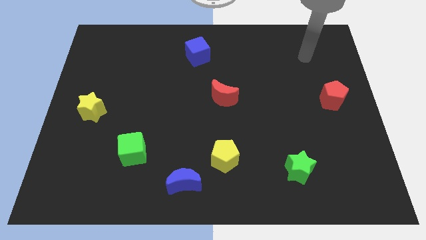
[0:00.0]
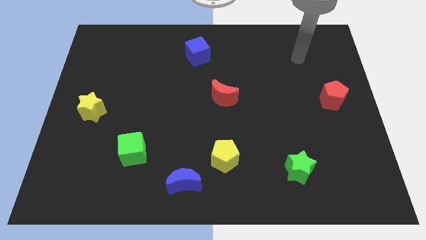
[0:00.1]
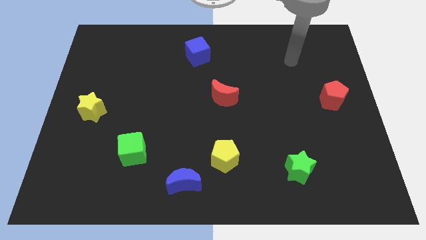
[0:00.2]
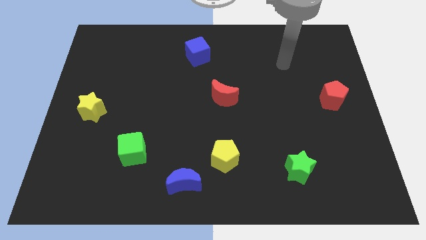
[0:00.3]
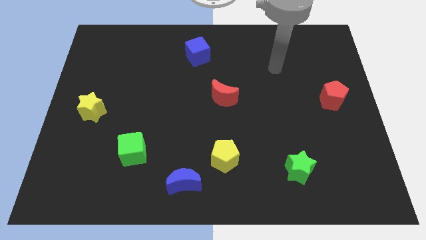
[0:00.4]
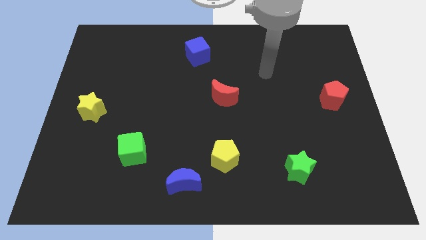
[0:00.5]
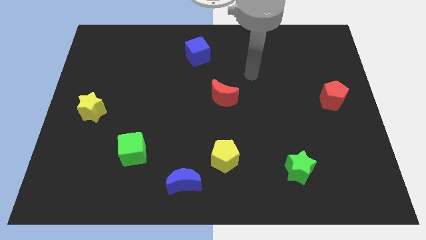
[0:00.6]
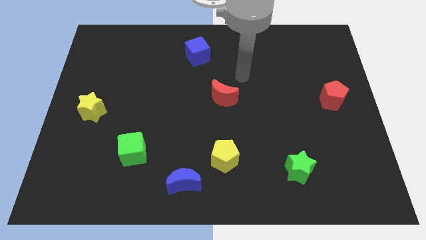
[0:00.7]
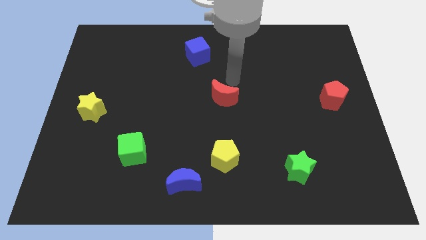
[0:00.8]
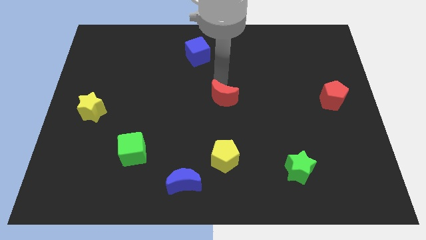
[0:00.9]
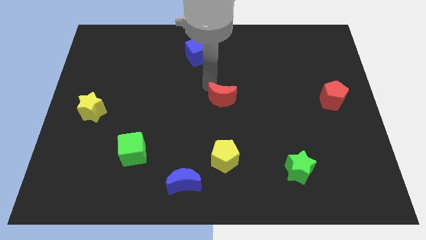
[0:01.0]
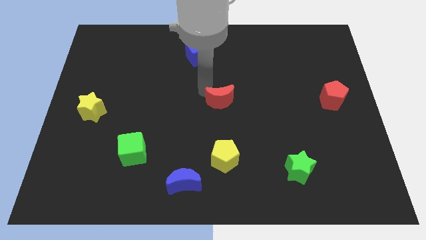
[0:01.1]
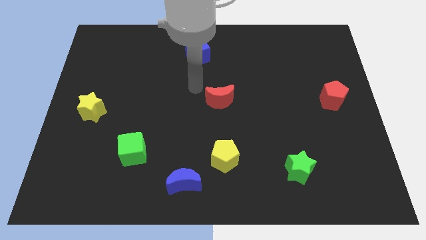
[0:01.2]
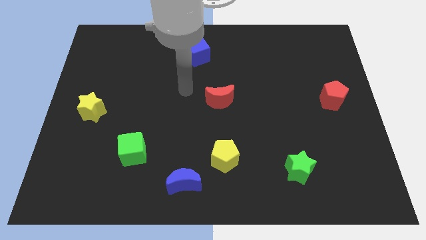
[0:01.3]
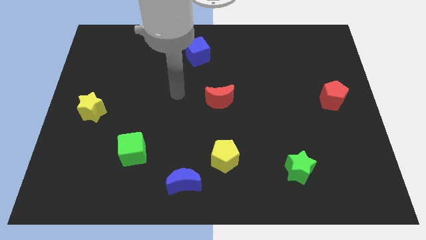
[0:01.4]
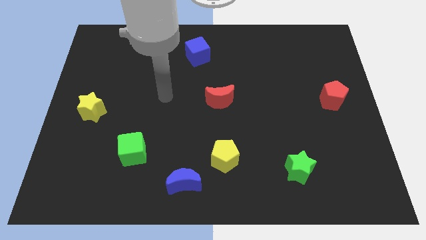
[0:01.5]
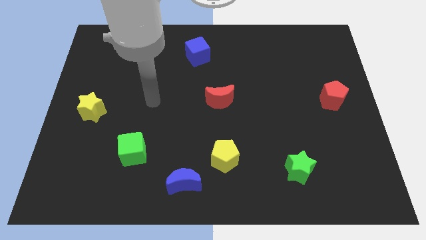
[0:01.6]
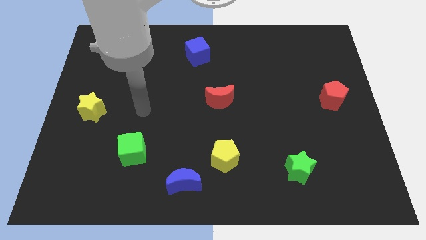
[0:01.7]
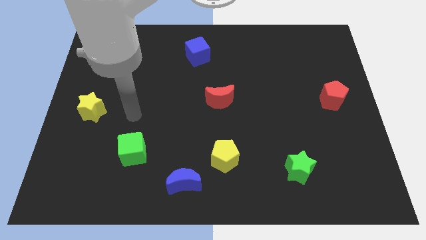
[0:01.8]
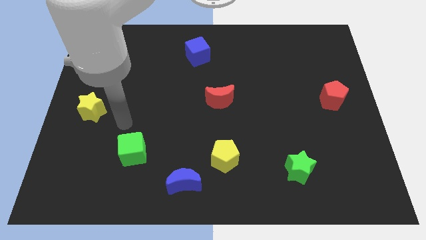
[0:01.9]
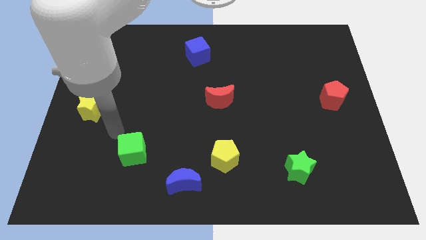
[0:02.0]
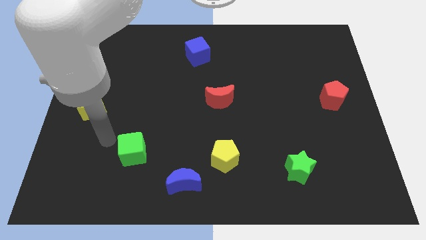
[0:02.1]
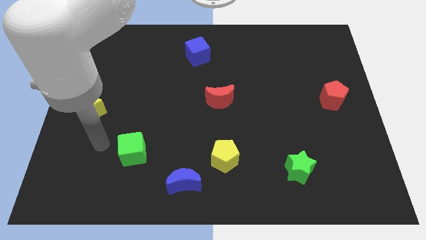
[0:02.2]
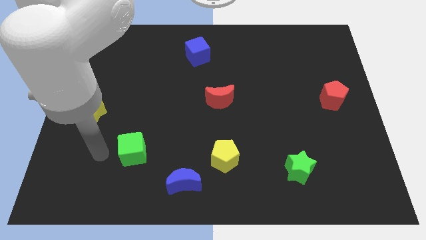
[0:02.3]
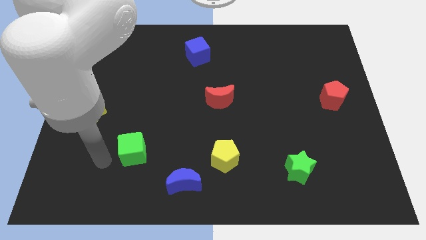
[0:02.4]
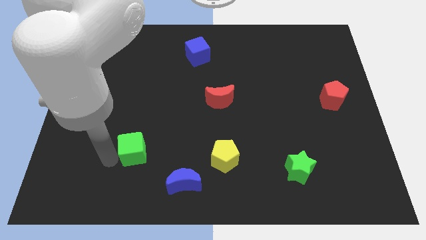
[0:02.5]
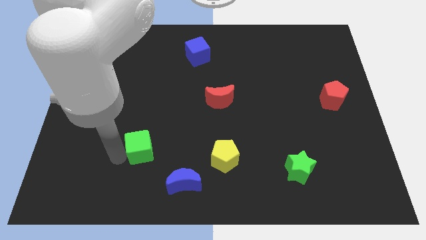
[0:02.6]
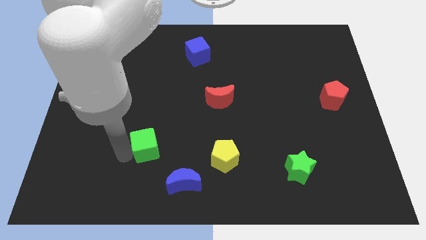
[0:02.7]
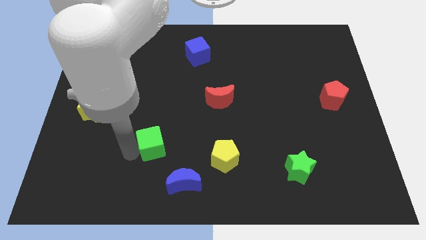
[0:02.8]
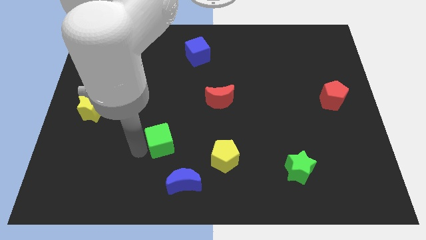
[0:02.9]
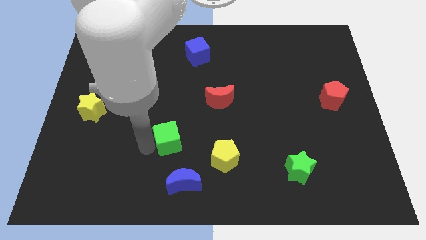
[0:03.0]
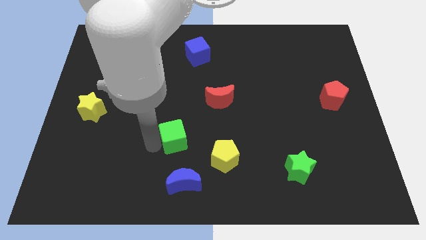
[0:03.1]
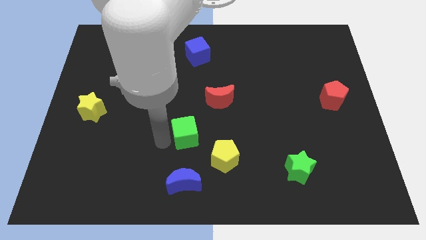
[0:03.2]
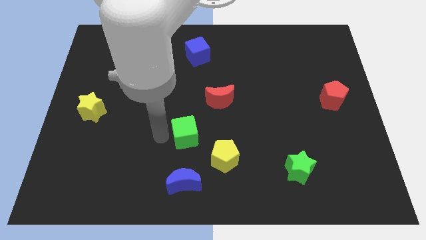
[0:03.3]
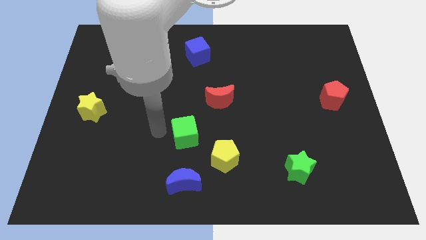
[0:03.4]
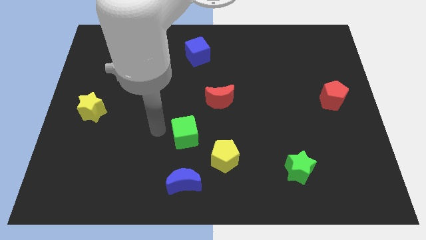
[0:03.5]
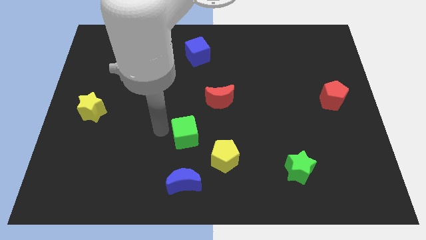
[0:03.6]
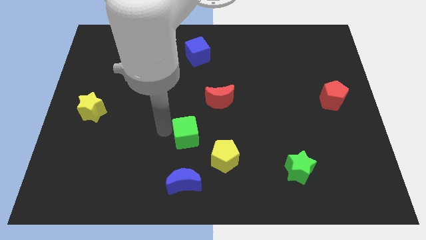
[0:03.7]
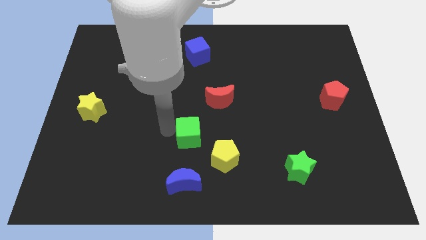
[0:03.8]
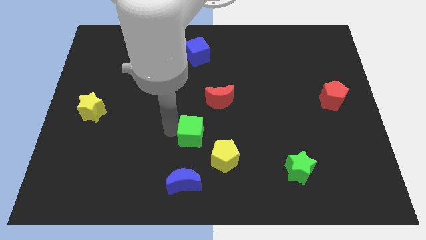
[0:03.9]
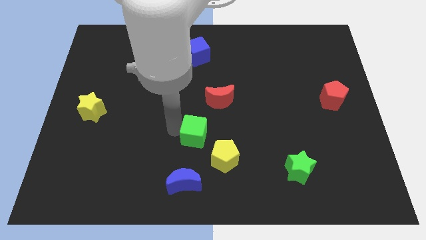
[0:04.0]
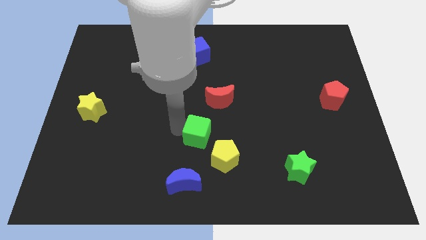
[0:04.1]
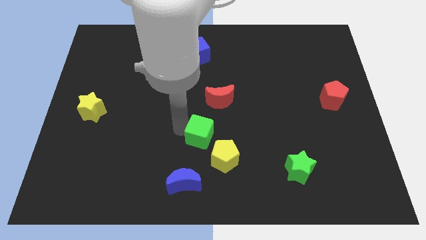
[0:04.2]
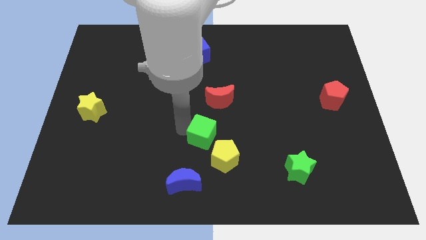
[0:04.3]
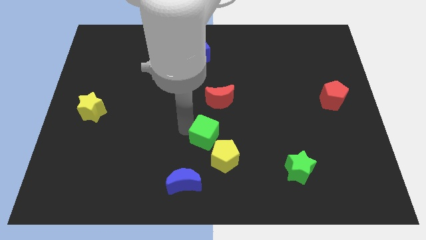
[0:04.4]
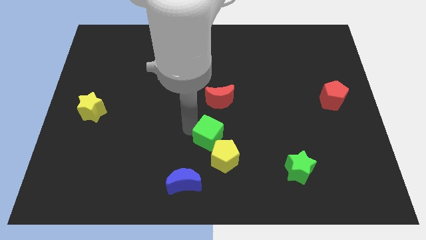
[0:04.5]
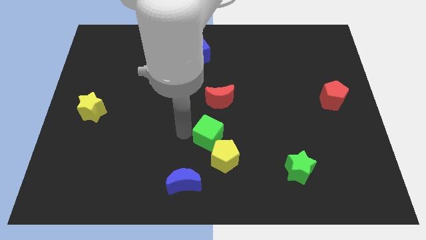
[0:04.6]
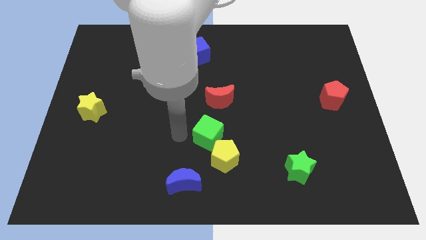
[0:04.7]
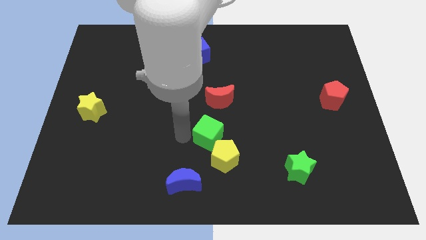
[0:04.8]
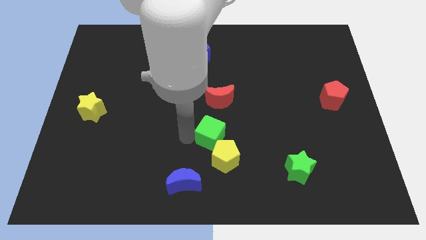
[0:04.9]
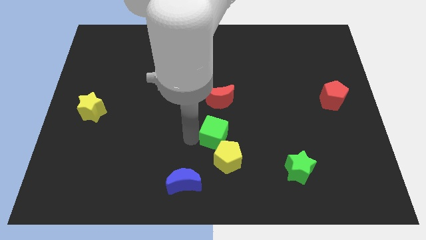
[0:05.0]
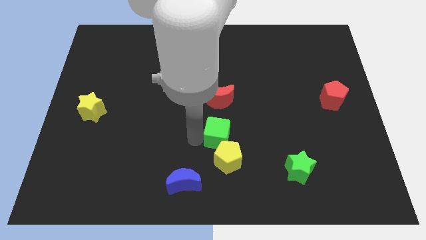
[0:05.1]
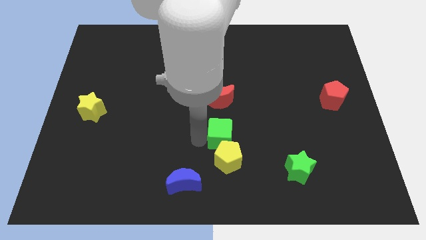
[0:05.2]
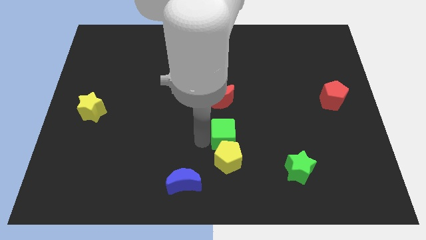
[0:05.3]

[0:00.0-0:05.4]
put the green cube diagonally up and to the right of the yellow pentagon

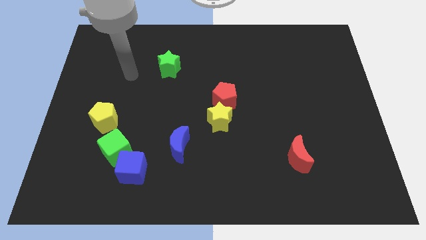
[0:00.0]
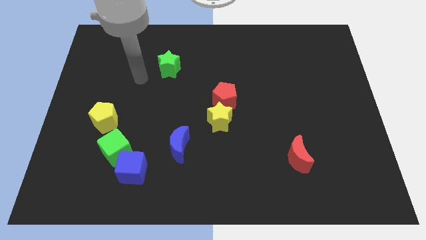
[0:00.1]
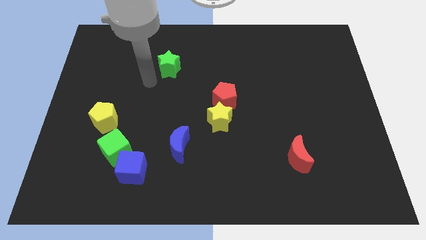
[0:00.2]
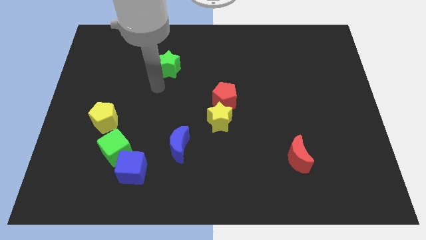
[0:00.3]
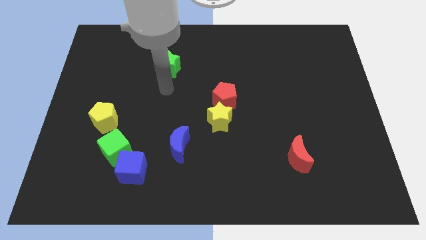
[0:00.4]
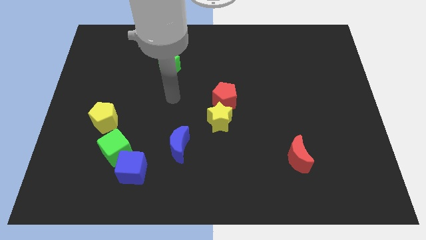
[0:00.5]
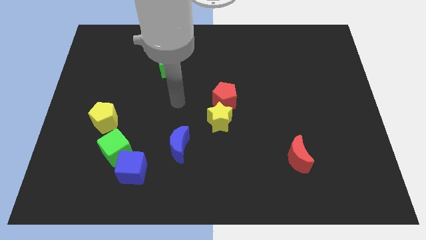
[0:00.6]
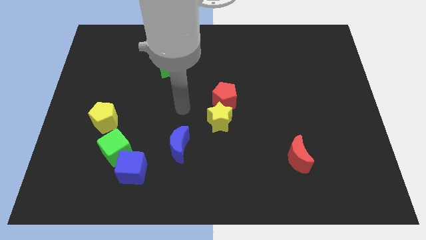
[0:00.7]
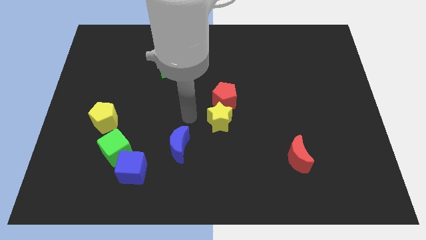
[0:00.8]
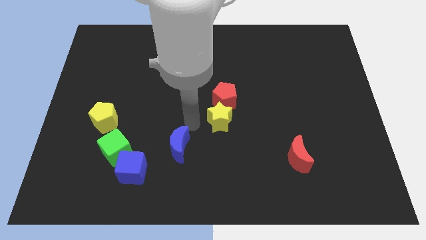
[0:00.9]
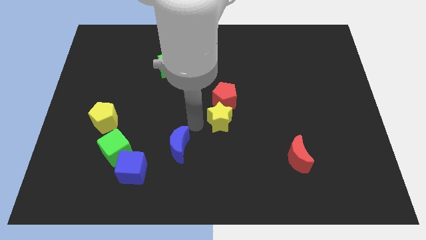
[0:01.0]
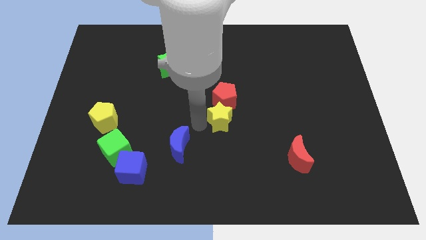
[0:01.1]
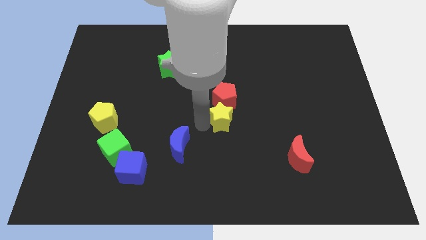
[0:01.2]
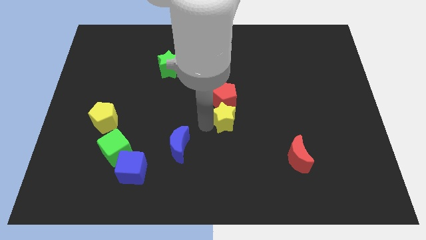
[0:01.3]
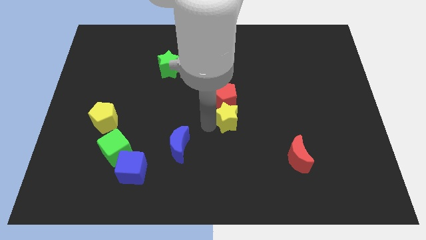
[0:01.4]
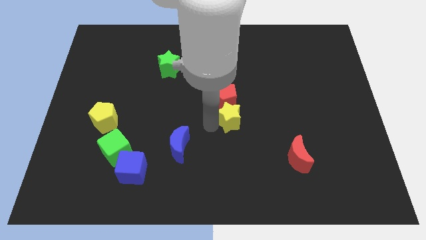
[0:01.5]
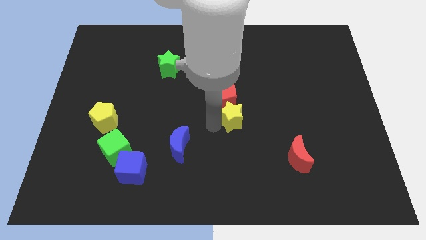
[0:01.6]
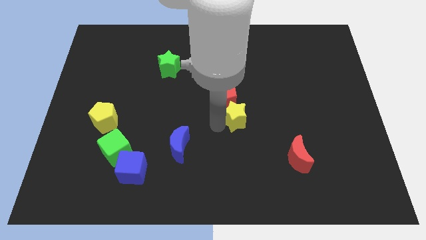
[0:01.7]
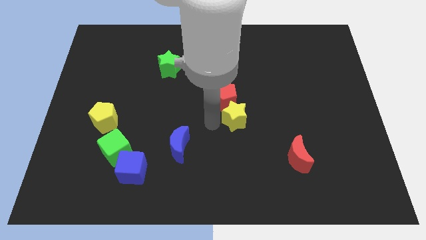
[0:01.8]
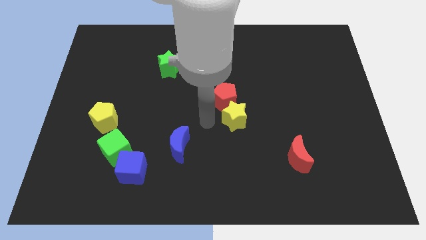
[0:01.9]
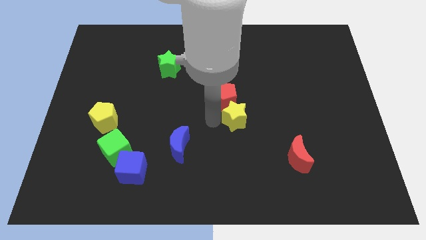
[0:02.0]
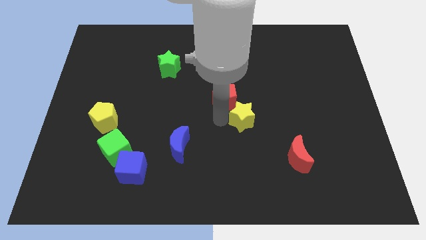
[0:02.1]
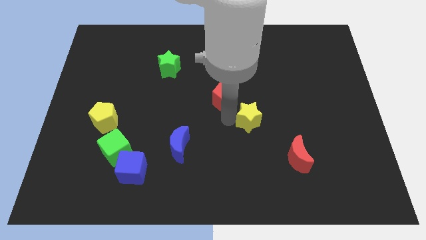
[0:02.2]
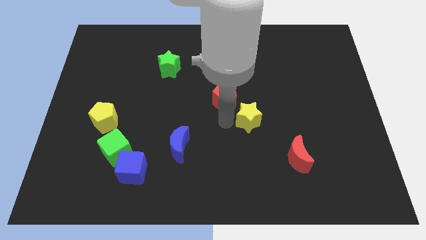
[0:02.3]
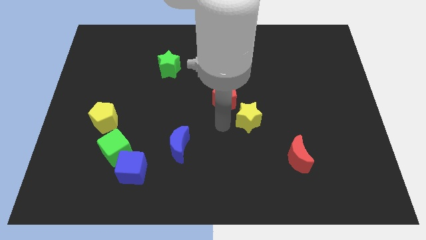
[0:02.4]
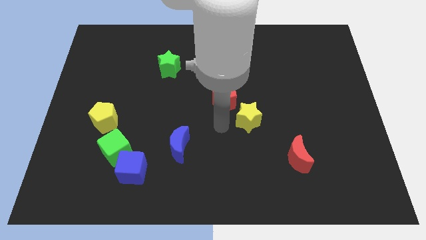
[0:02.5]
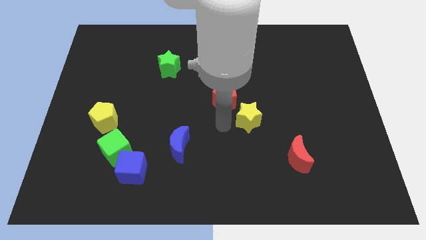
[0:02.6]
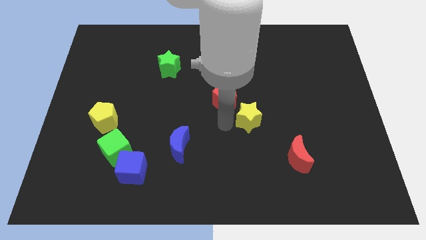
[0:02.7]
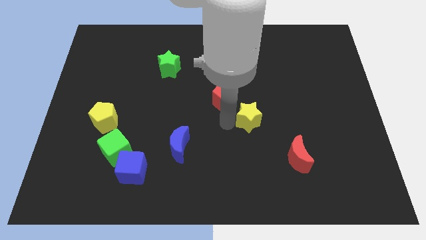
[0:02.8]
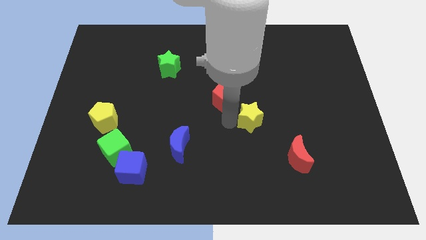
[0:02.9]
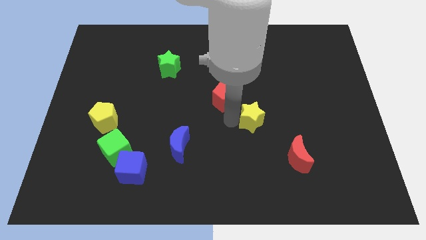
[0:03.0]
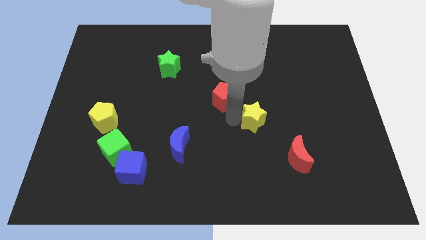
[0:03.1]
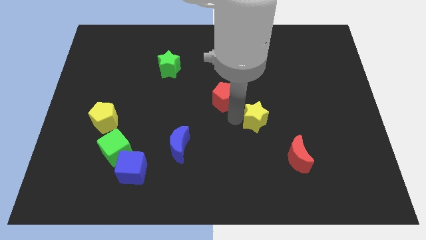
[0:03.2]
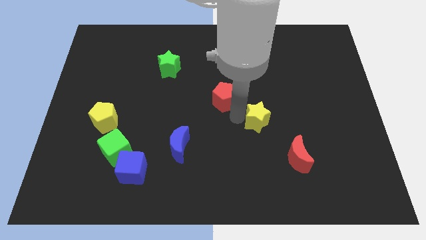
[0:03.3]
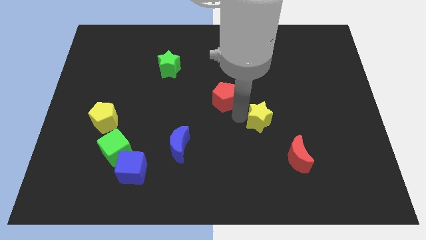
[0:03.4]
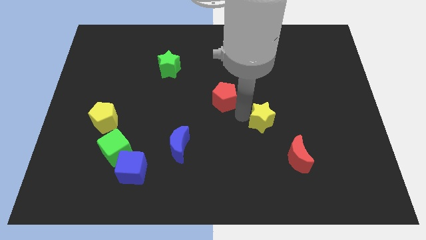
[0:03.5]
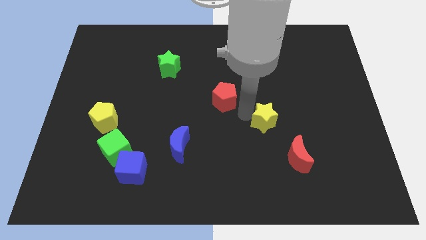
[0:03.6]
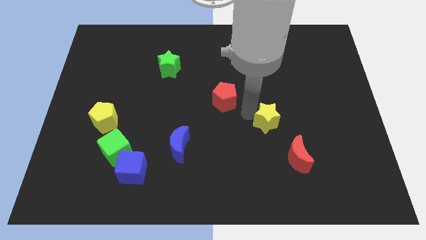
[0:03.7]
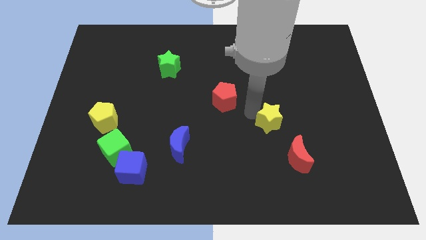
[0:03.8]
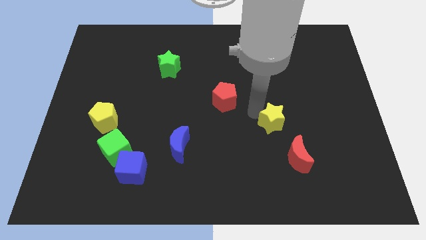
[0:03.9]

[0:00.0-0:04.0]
slide the yellow star above the red moon
